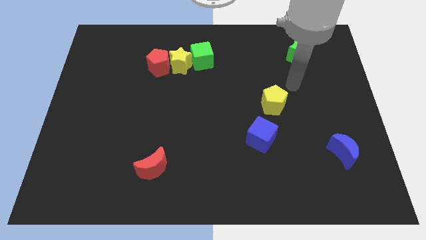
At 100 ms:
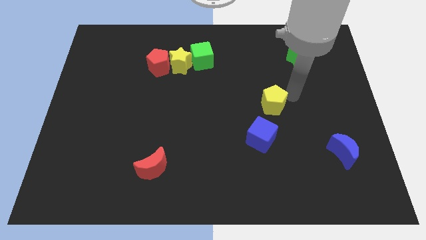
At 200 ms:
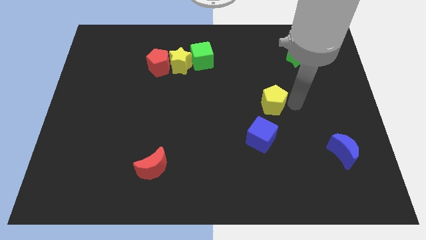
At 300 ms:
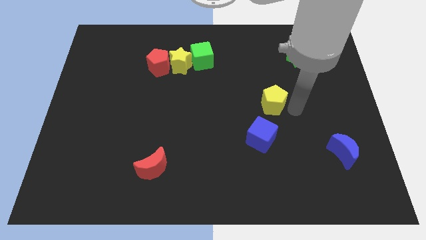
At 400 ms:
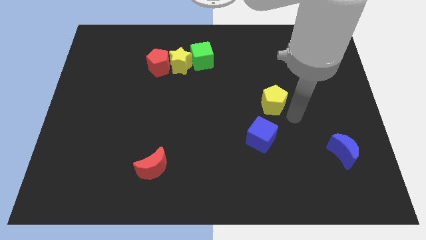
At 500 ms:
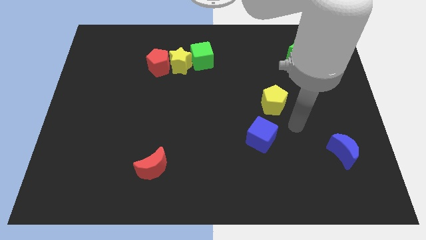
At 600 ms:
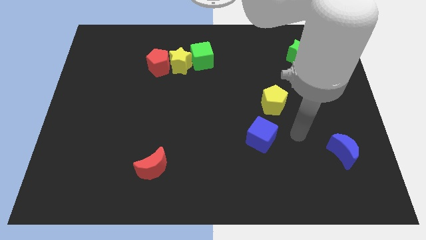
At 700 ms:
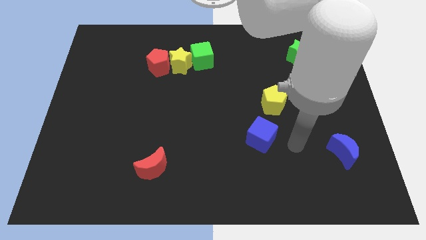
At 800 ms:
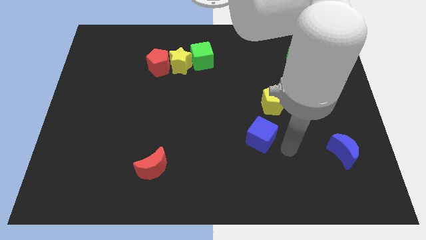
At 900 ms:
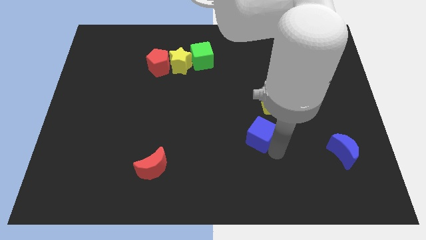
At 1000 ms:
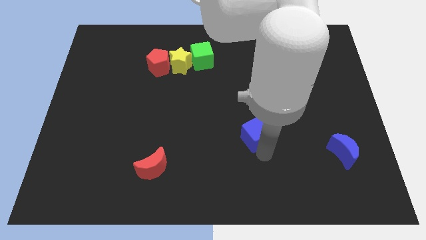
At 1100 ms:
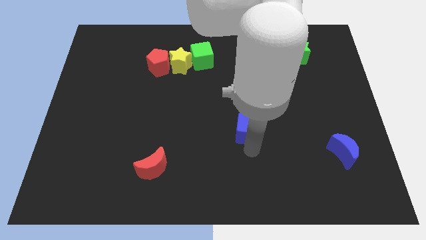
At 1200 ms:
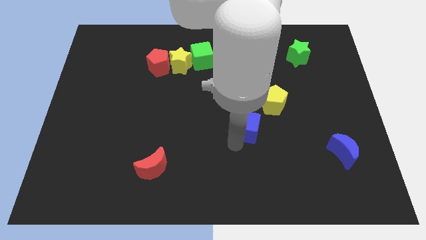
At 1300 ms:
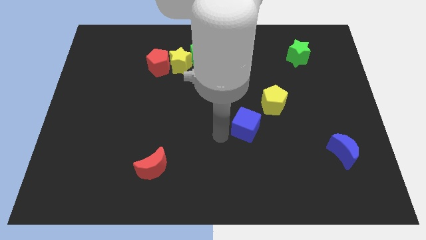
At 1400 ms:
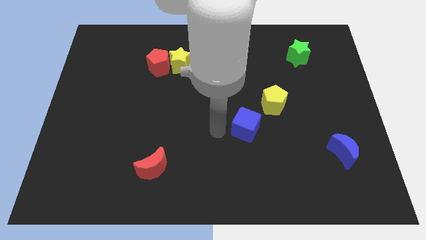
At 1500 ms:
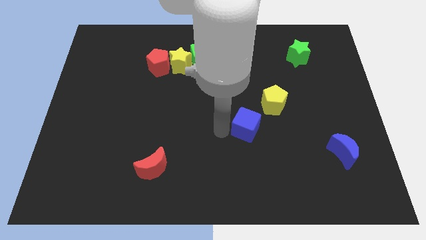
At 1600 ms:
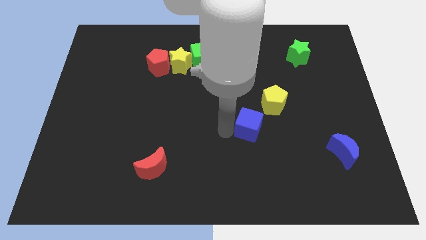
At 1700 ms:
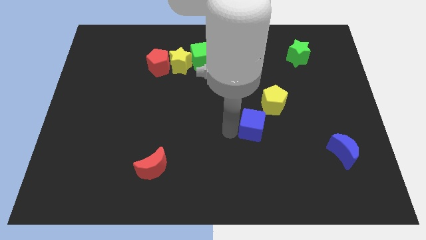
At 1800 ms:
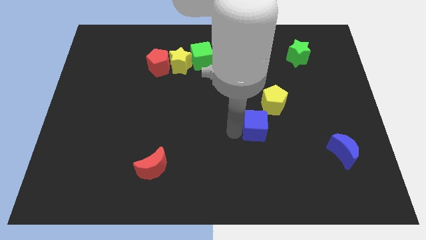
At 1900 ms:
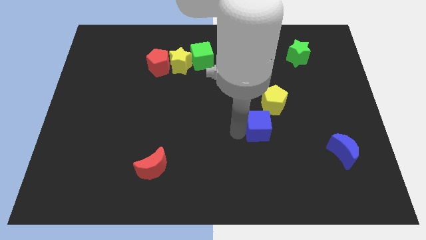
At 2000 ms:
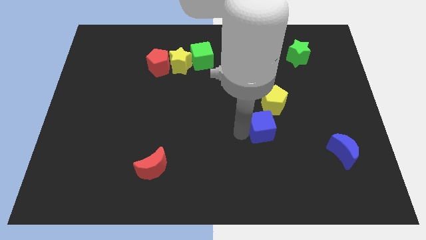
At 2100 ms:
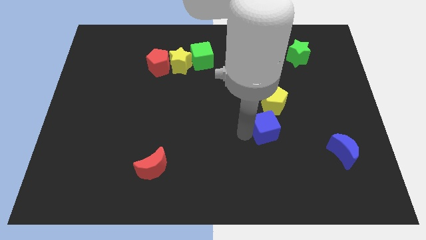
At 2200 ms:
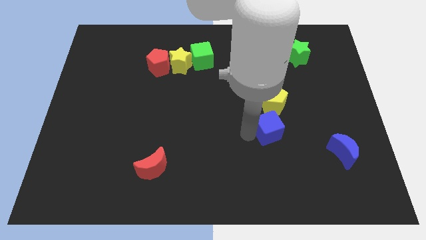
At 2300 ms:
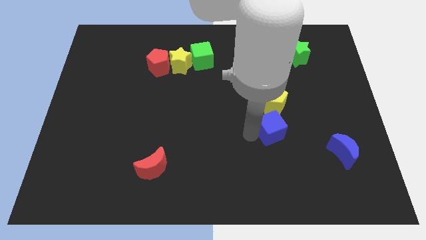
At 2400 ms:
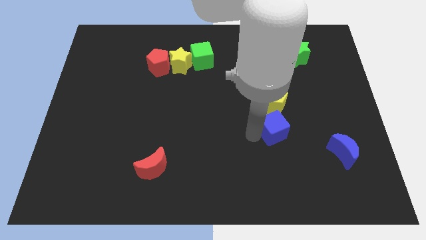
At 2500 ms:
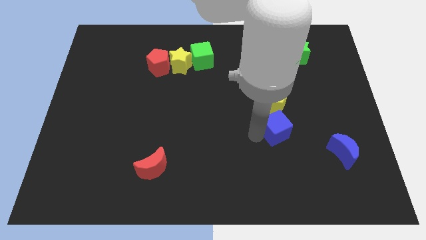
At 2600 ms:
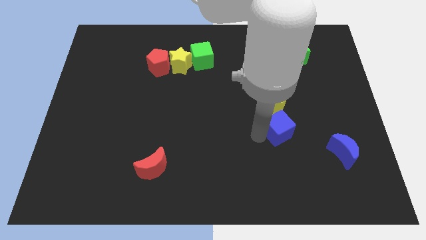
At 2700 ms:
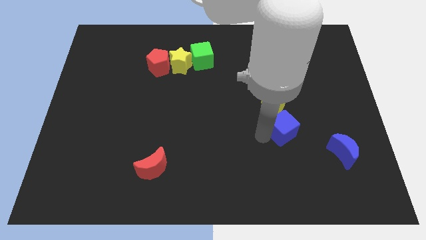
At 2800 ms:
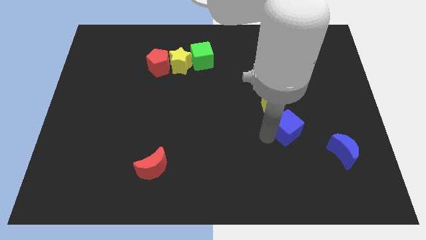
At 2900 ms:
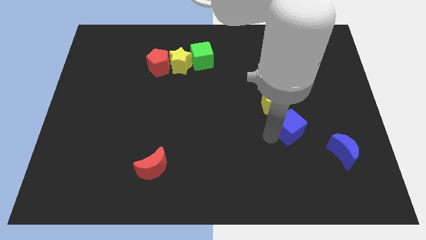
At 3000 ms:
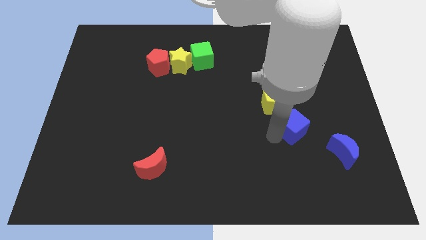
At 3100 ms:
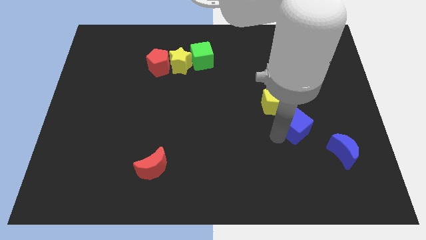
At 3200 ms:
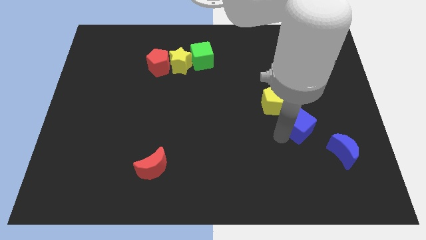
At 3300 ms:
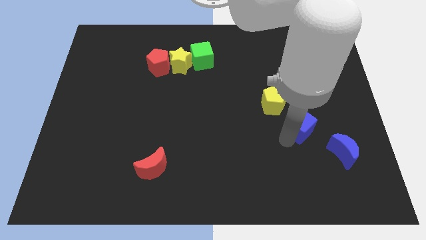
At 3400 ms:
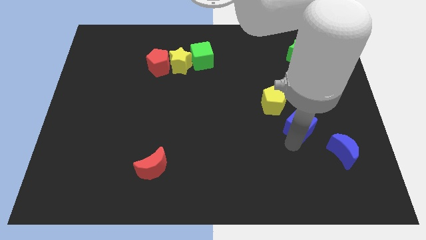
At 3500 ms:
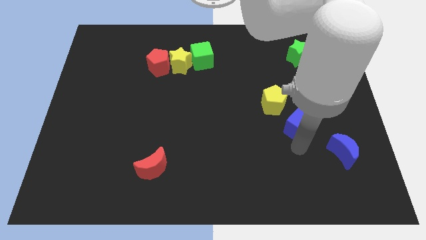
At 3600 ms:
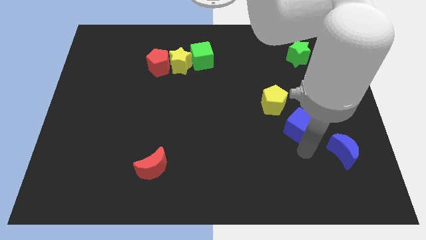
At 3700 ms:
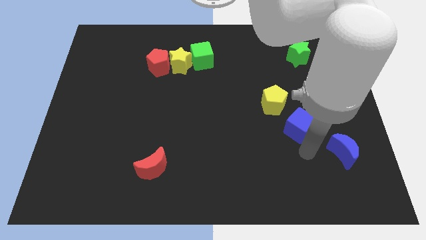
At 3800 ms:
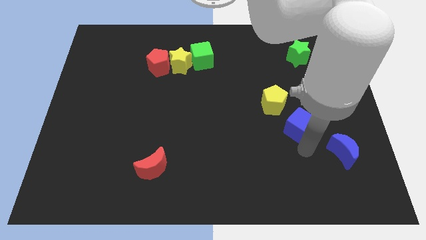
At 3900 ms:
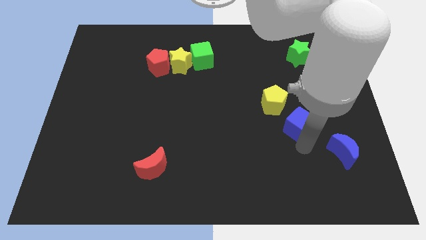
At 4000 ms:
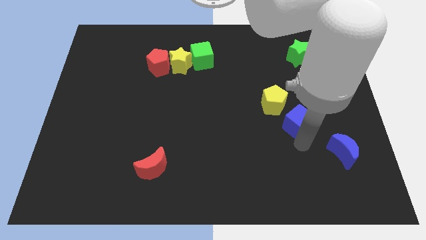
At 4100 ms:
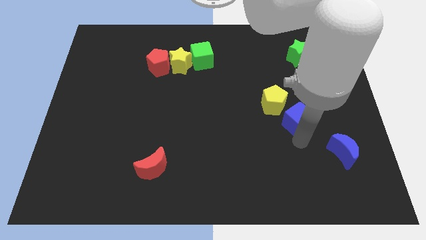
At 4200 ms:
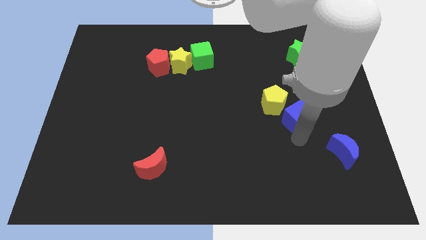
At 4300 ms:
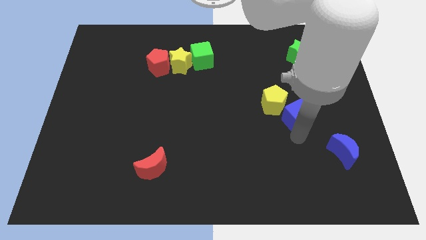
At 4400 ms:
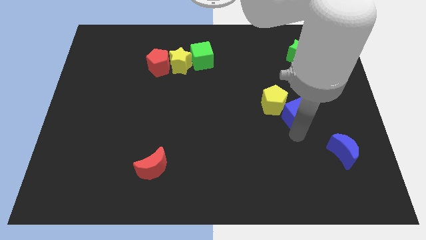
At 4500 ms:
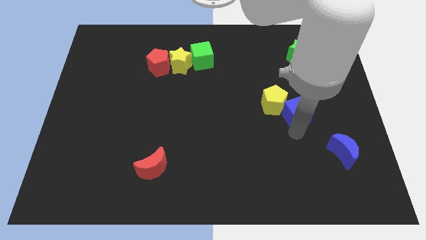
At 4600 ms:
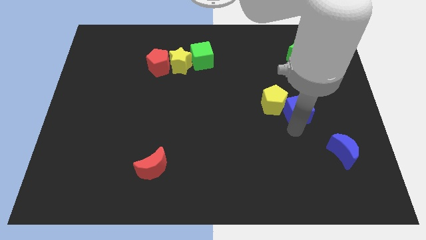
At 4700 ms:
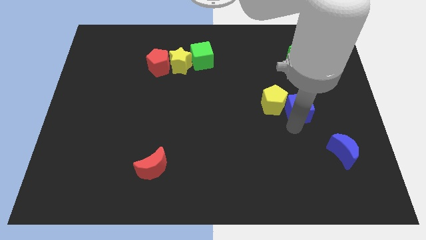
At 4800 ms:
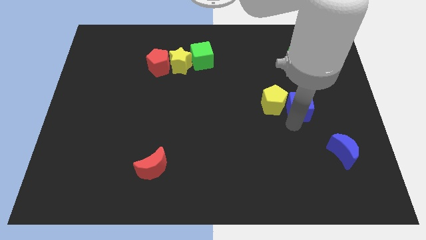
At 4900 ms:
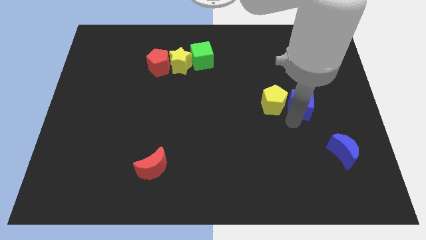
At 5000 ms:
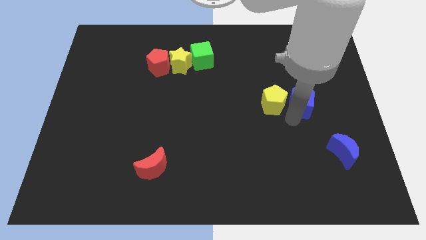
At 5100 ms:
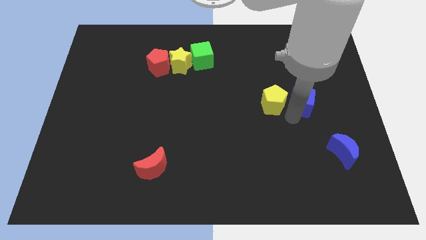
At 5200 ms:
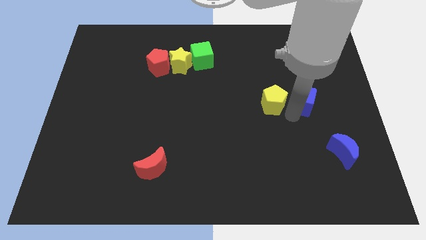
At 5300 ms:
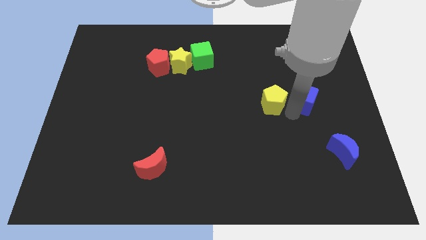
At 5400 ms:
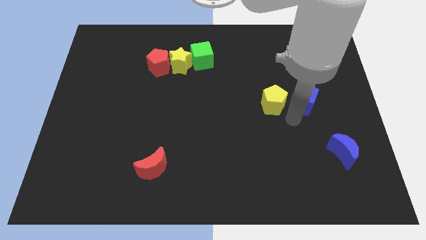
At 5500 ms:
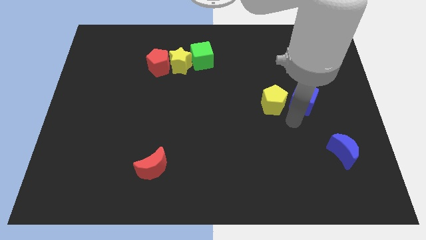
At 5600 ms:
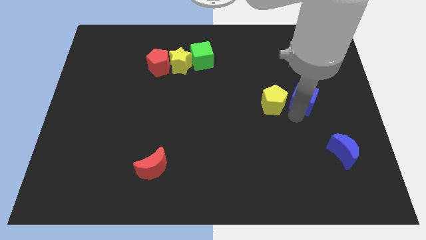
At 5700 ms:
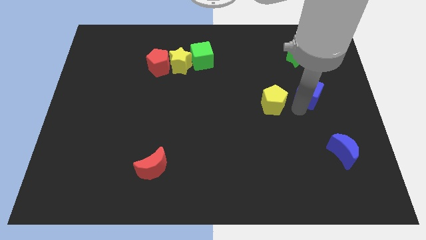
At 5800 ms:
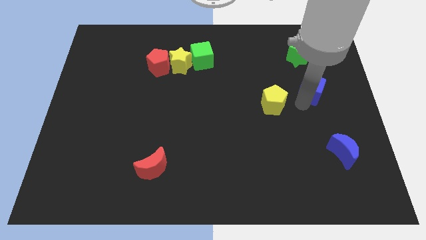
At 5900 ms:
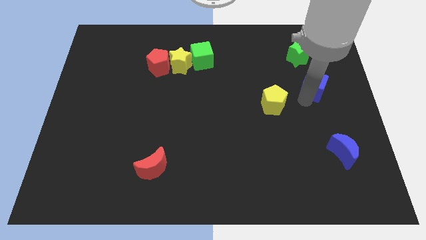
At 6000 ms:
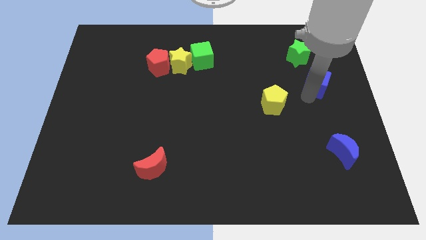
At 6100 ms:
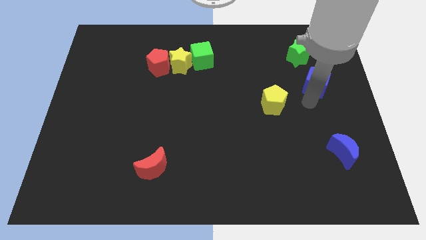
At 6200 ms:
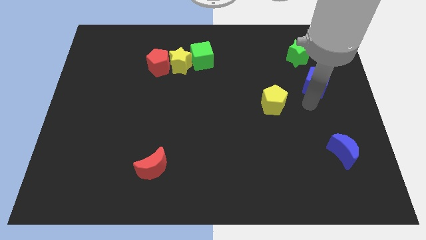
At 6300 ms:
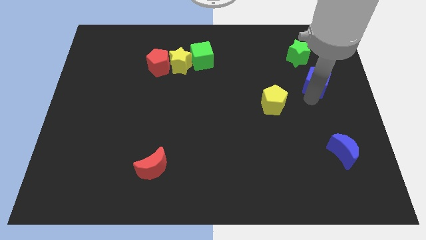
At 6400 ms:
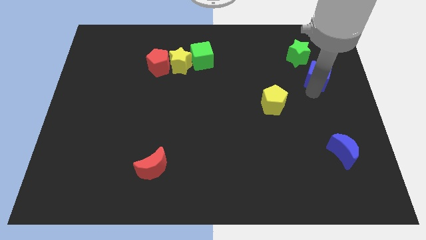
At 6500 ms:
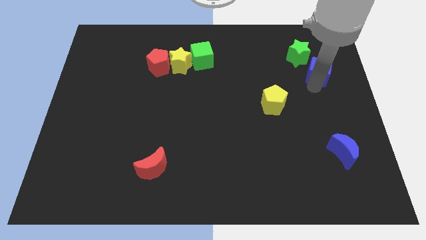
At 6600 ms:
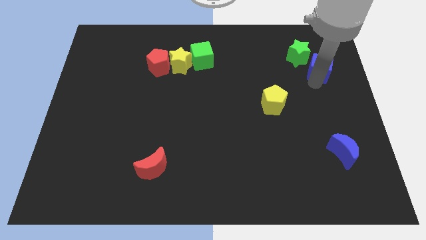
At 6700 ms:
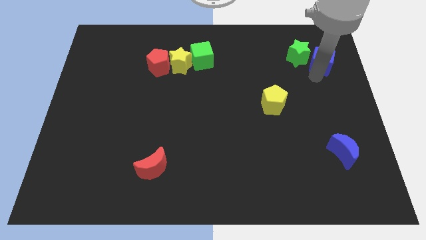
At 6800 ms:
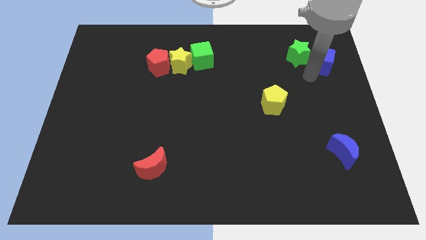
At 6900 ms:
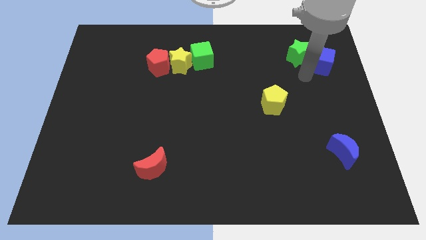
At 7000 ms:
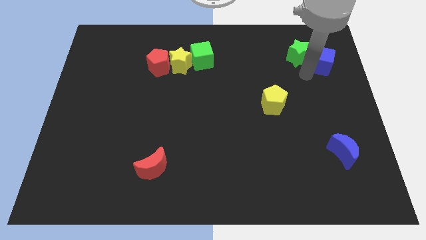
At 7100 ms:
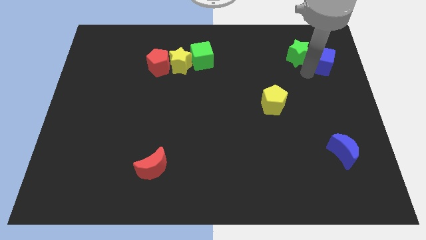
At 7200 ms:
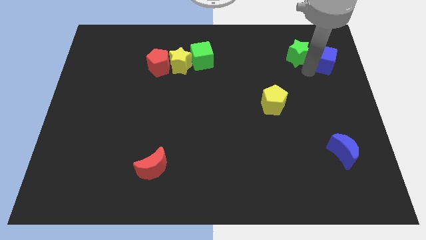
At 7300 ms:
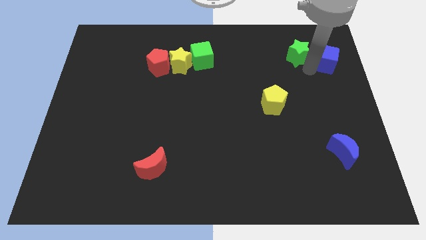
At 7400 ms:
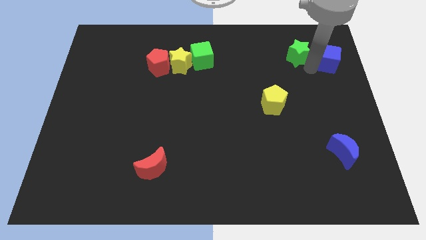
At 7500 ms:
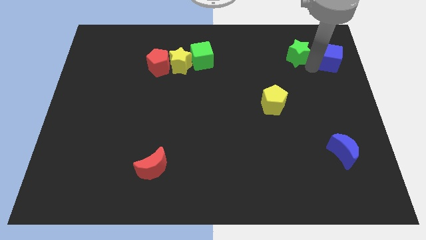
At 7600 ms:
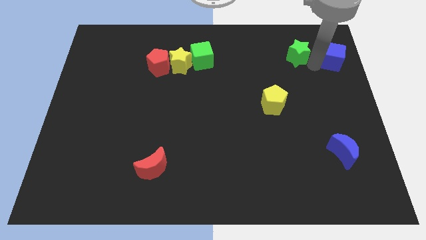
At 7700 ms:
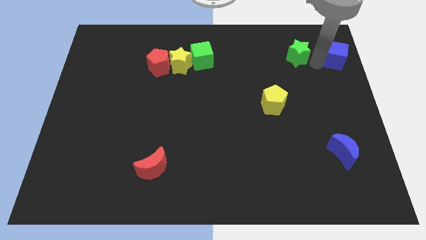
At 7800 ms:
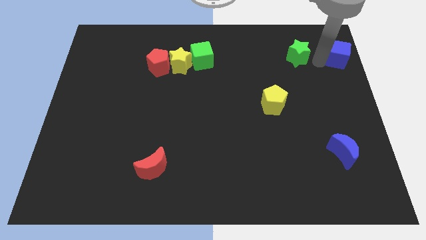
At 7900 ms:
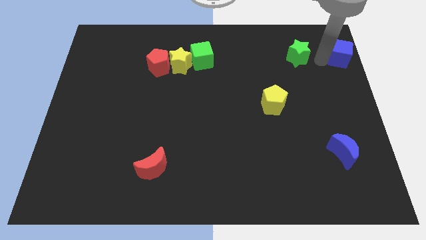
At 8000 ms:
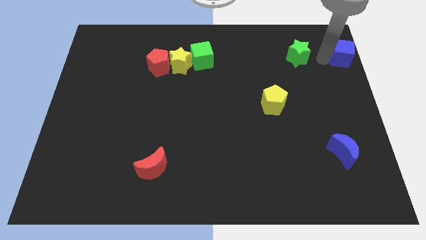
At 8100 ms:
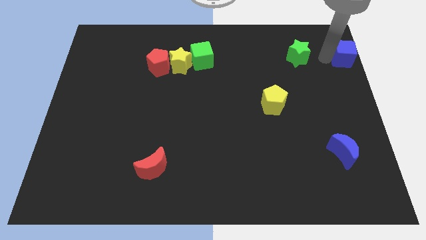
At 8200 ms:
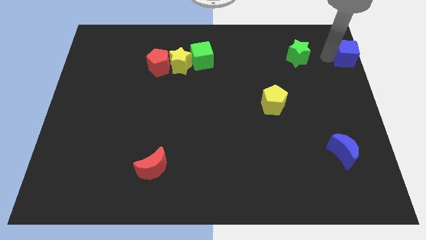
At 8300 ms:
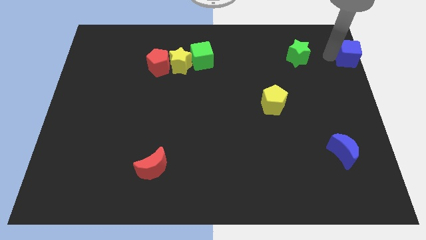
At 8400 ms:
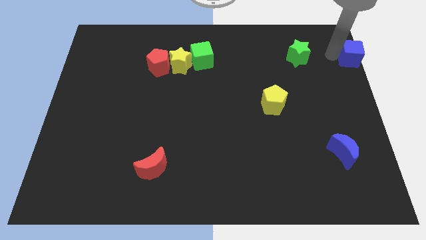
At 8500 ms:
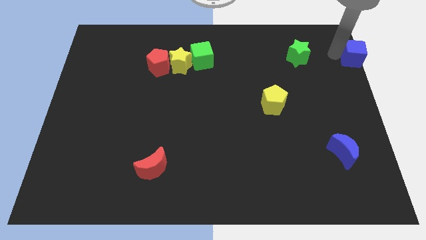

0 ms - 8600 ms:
put the blue cube to the top right
